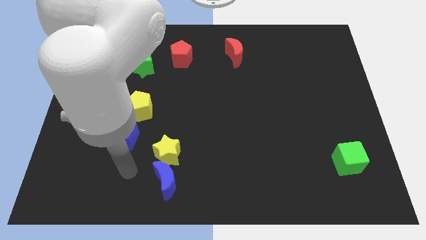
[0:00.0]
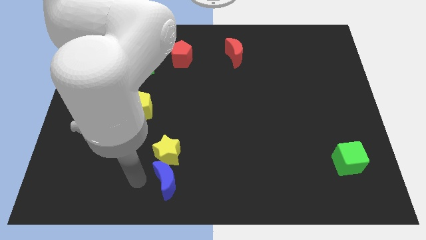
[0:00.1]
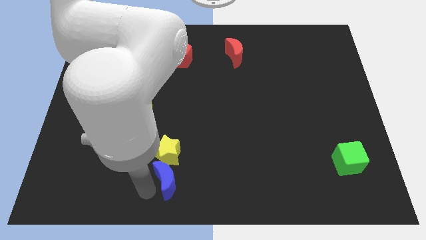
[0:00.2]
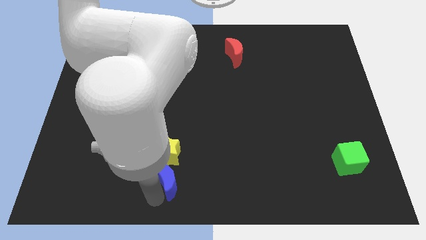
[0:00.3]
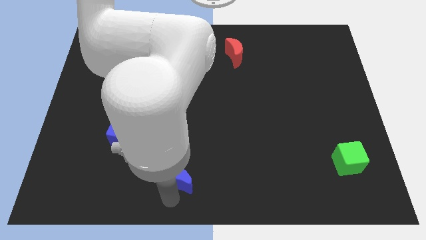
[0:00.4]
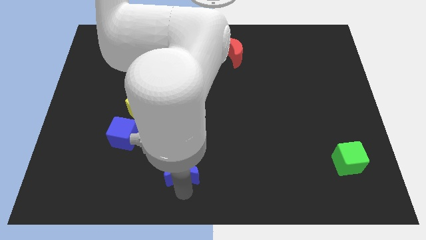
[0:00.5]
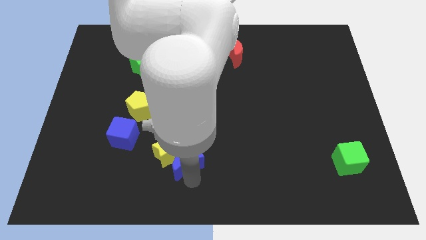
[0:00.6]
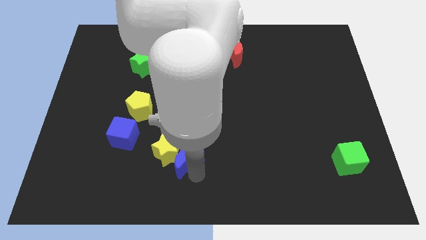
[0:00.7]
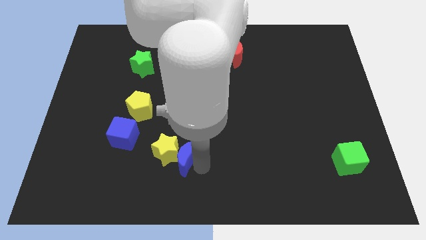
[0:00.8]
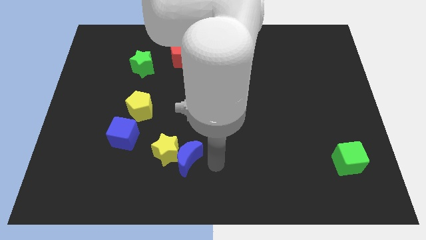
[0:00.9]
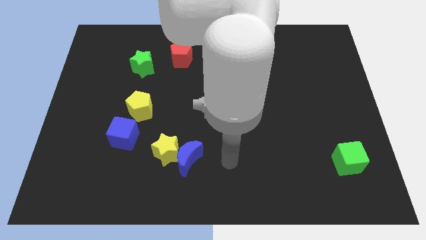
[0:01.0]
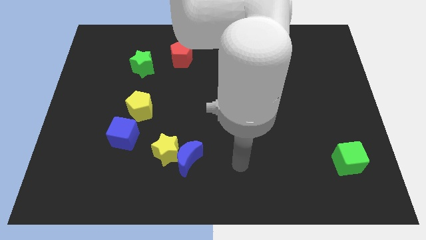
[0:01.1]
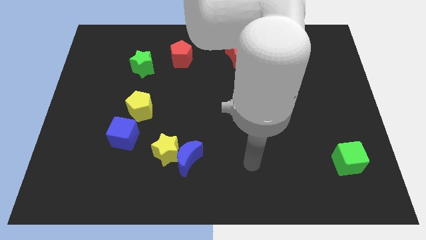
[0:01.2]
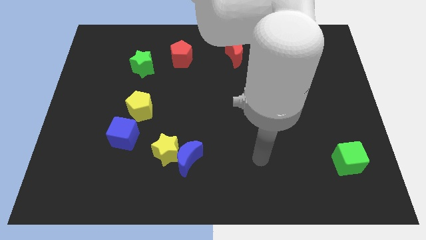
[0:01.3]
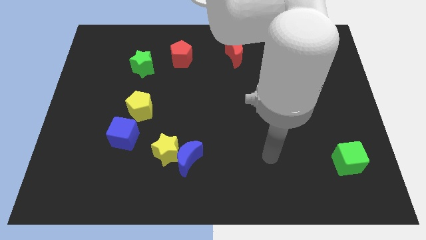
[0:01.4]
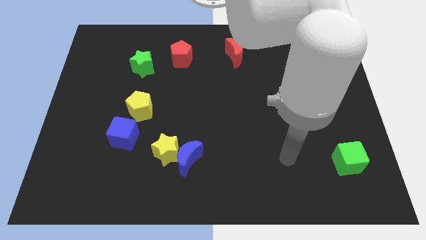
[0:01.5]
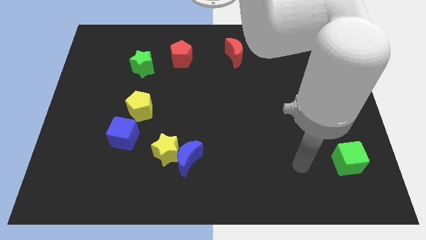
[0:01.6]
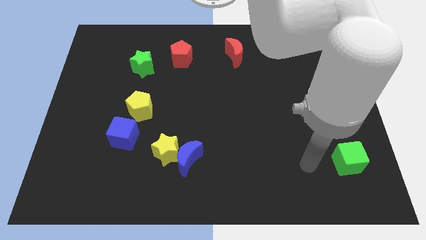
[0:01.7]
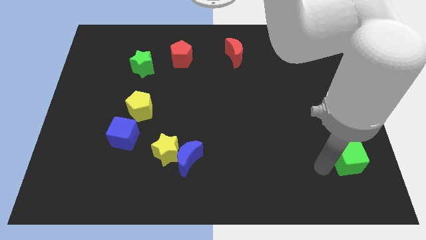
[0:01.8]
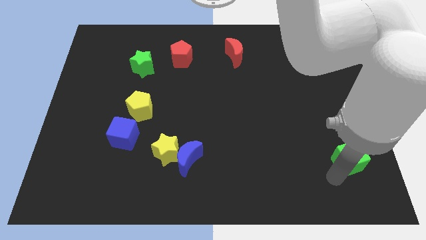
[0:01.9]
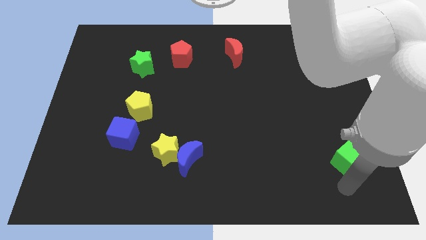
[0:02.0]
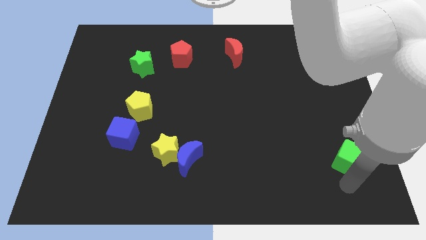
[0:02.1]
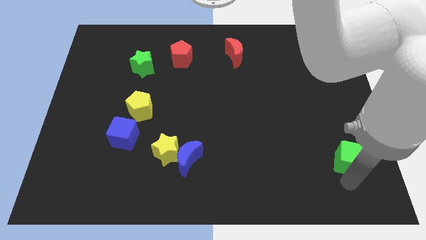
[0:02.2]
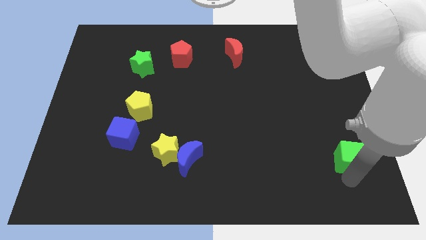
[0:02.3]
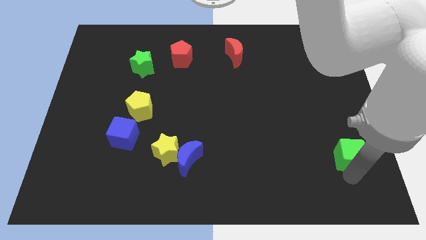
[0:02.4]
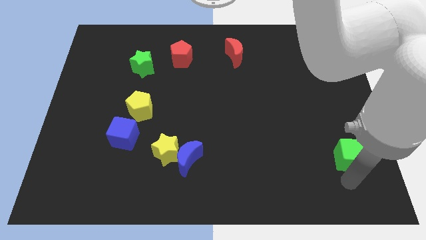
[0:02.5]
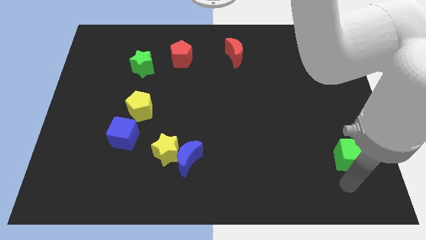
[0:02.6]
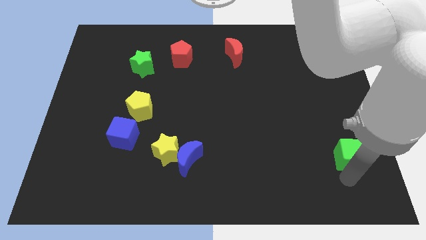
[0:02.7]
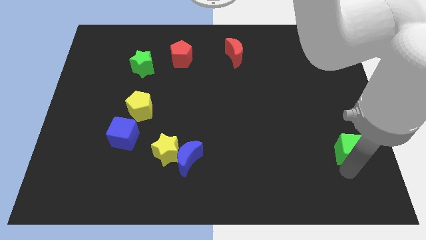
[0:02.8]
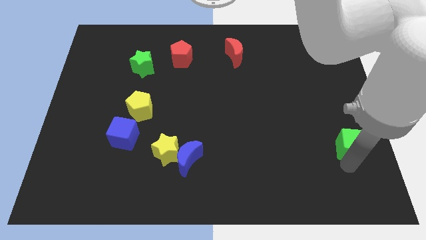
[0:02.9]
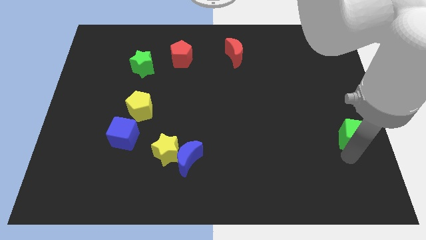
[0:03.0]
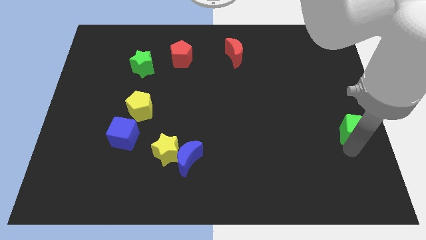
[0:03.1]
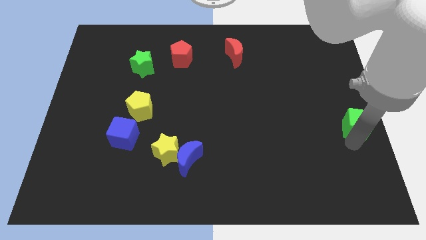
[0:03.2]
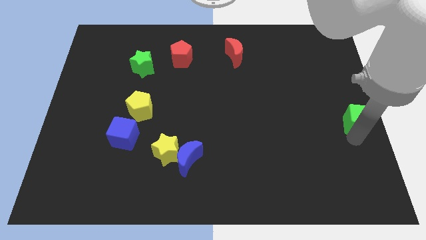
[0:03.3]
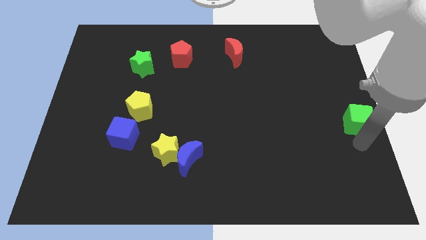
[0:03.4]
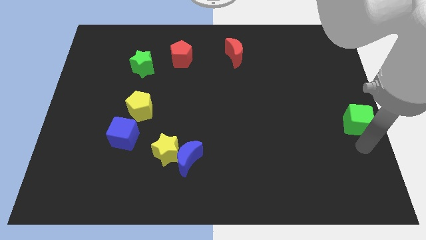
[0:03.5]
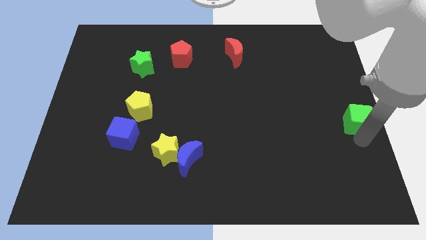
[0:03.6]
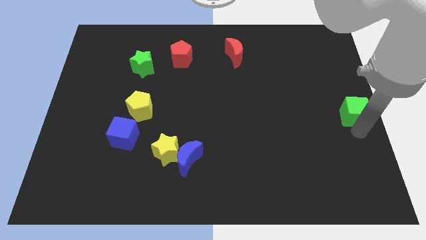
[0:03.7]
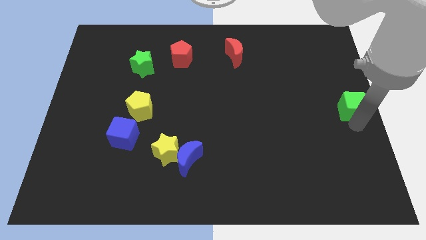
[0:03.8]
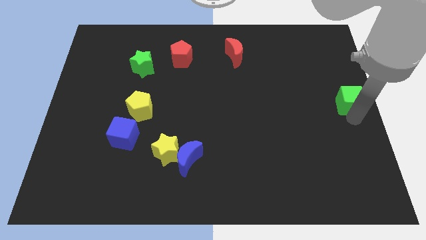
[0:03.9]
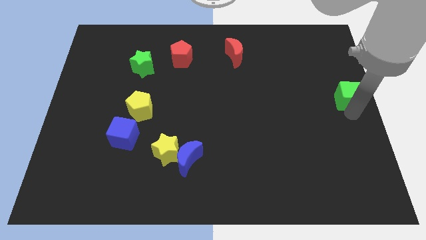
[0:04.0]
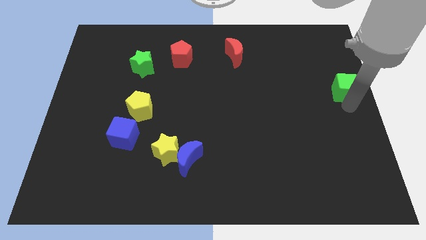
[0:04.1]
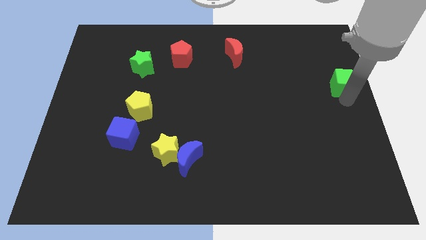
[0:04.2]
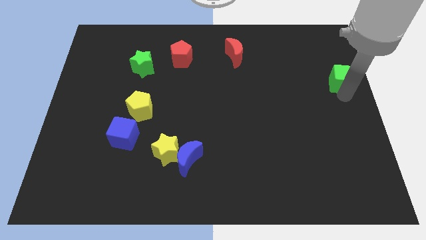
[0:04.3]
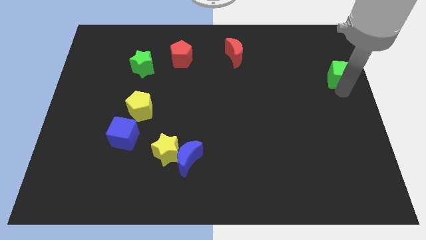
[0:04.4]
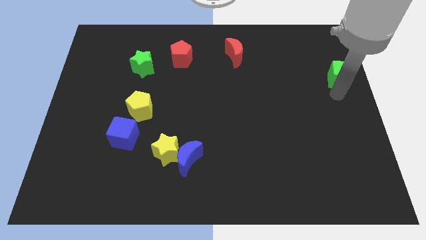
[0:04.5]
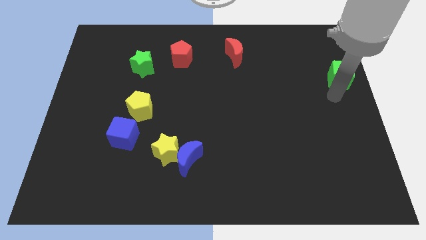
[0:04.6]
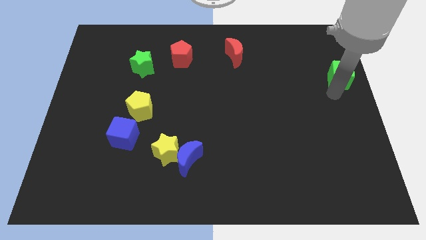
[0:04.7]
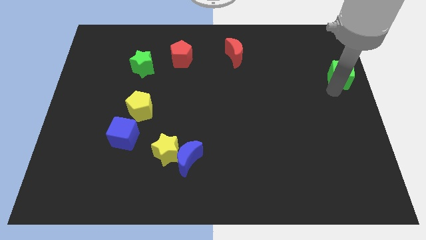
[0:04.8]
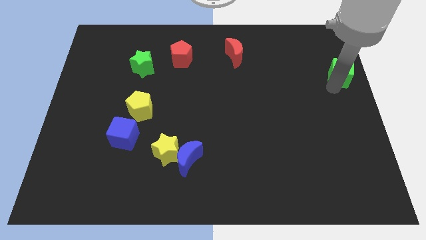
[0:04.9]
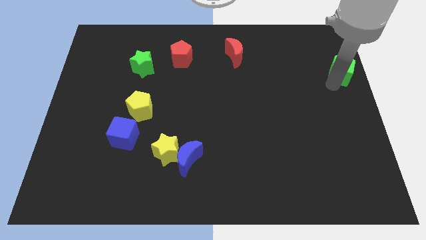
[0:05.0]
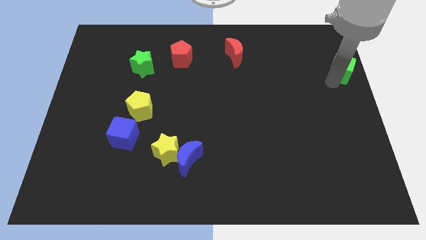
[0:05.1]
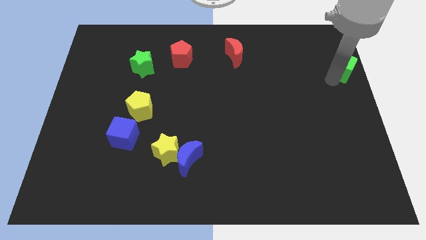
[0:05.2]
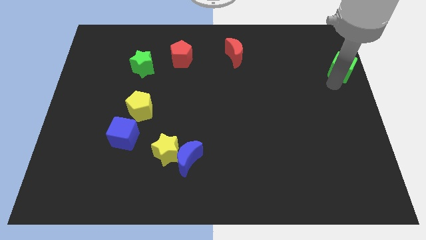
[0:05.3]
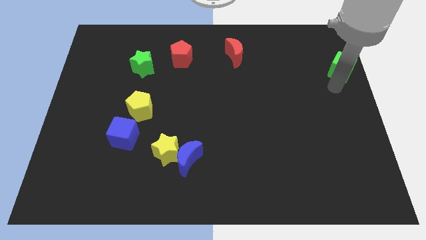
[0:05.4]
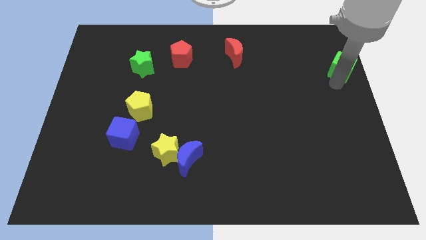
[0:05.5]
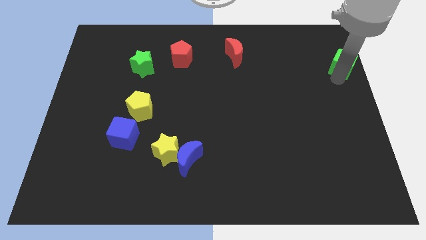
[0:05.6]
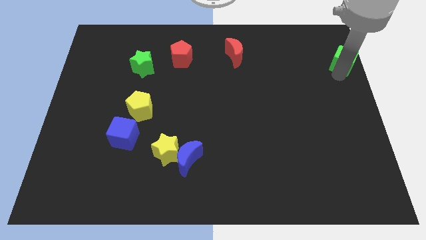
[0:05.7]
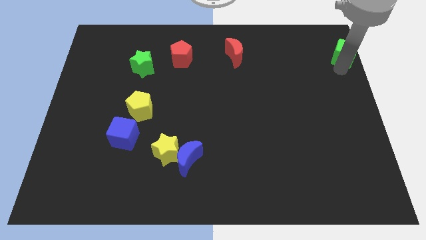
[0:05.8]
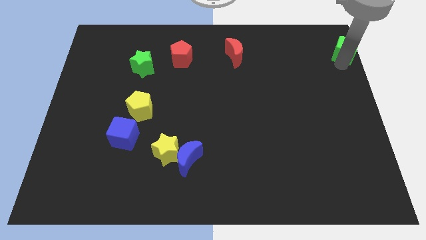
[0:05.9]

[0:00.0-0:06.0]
put the green cube to the upper right corner
